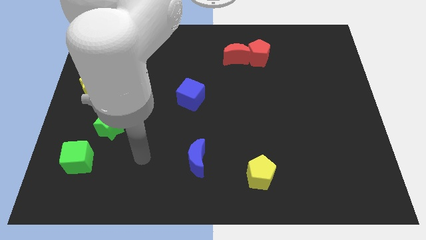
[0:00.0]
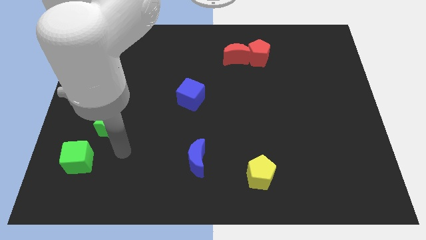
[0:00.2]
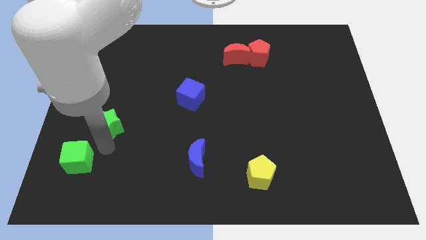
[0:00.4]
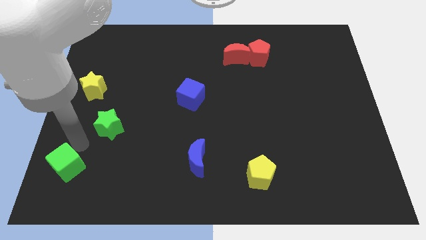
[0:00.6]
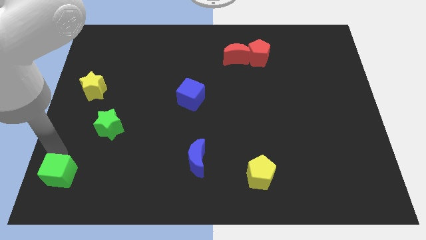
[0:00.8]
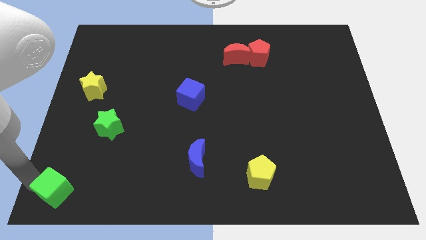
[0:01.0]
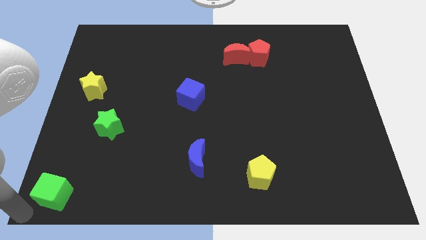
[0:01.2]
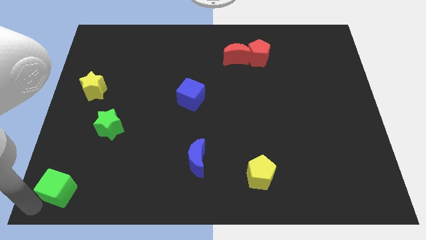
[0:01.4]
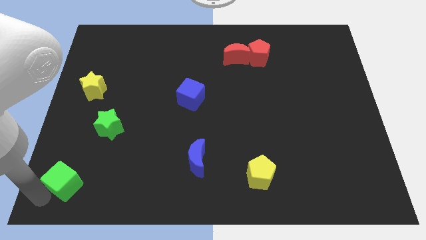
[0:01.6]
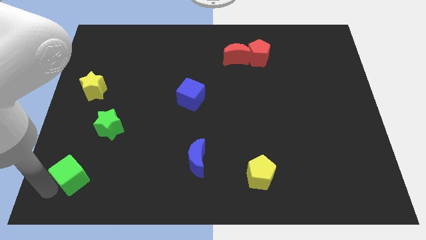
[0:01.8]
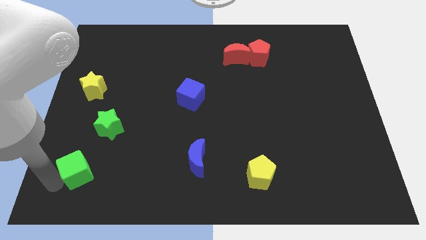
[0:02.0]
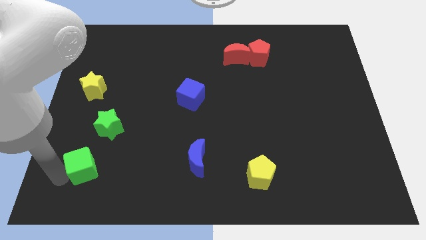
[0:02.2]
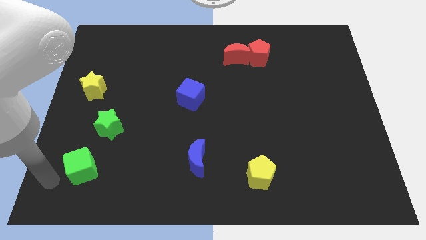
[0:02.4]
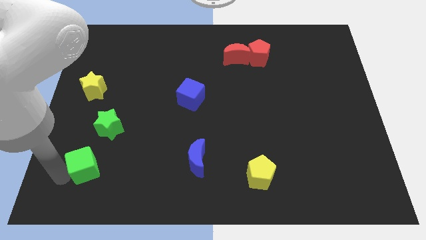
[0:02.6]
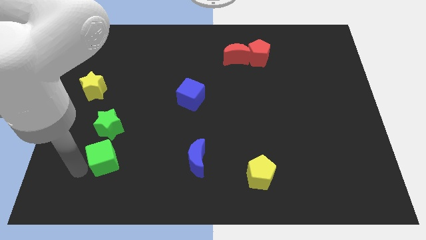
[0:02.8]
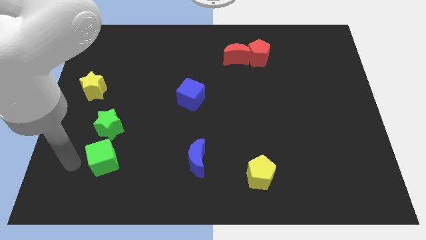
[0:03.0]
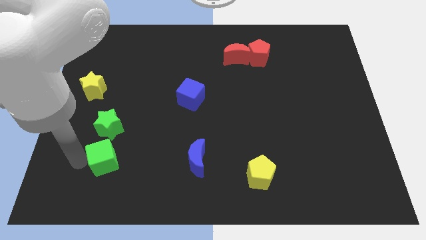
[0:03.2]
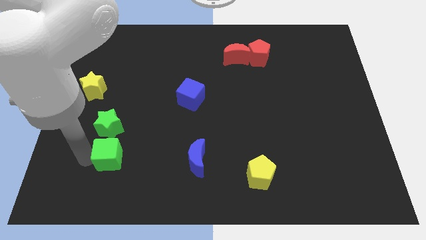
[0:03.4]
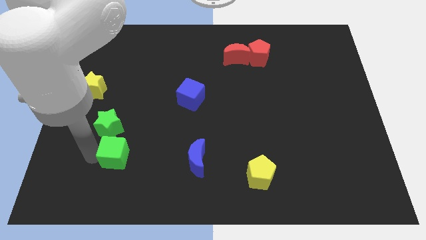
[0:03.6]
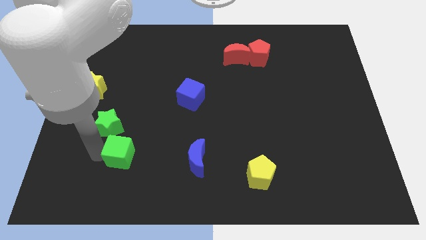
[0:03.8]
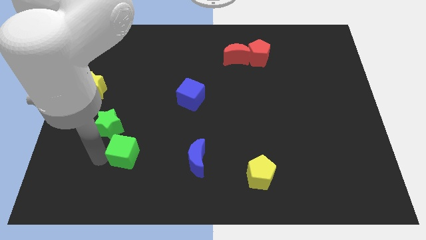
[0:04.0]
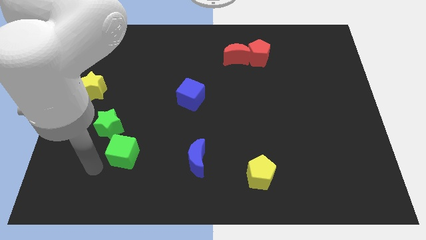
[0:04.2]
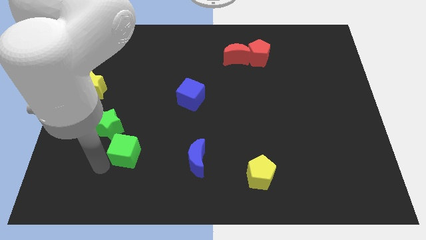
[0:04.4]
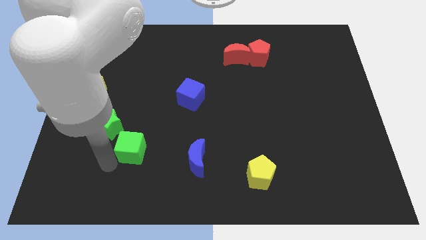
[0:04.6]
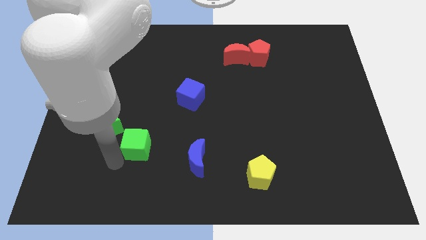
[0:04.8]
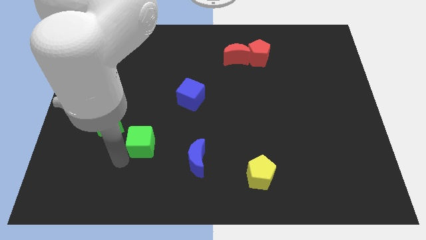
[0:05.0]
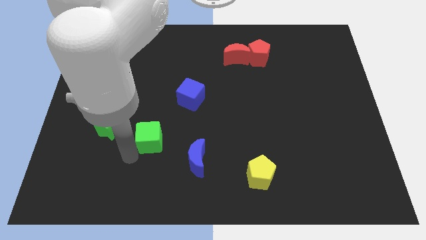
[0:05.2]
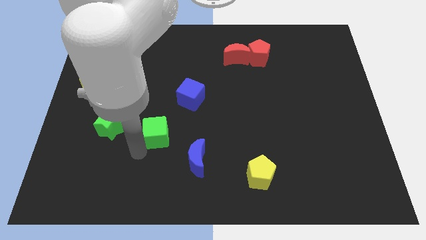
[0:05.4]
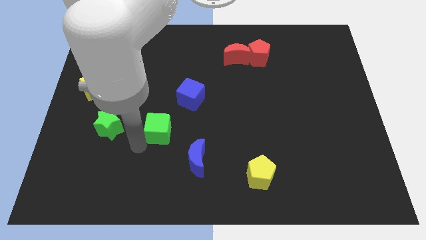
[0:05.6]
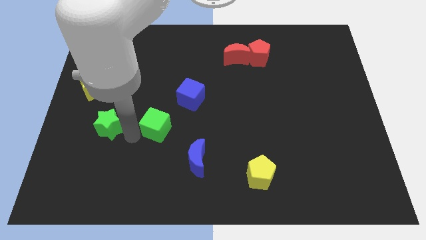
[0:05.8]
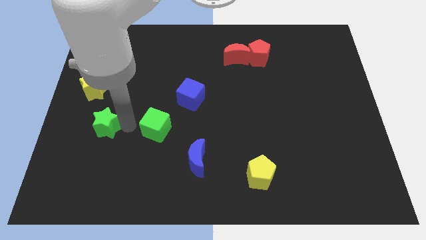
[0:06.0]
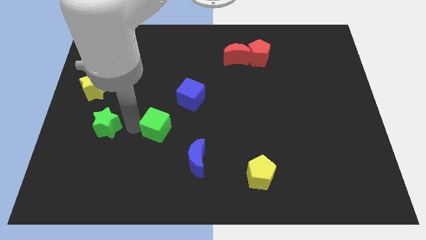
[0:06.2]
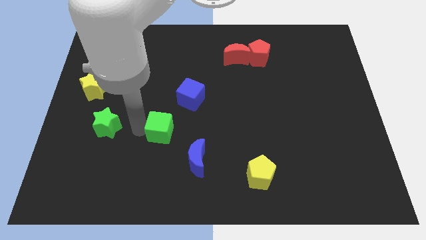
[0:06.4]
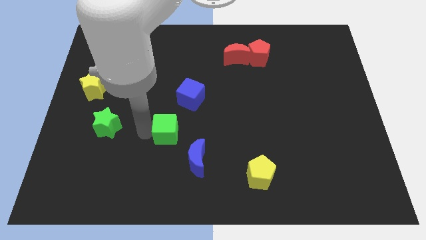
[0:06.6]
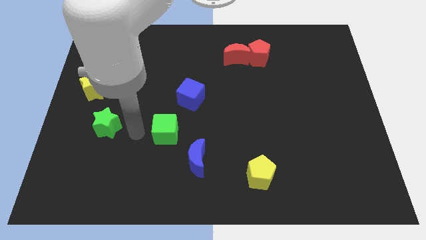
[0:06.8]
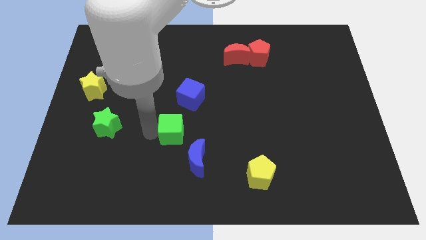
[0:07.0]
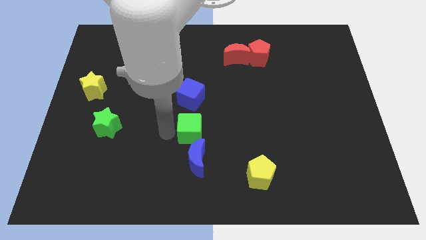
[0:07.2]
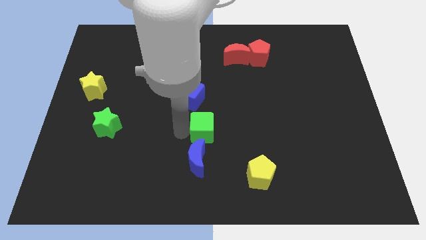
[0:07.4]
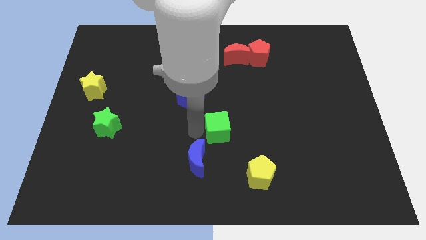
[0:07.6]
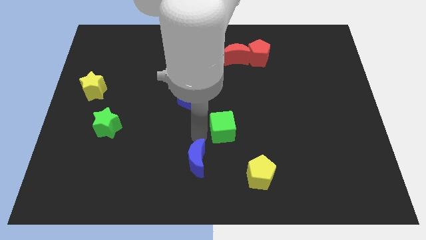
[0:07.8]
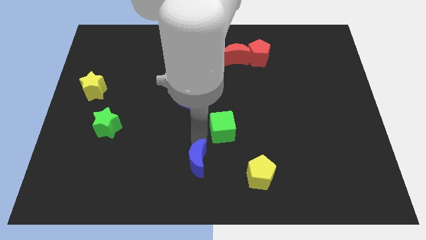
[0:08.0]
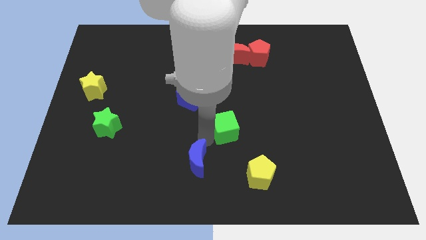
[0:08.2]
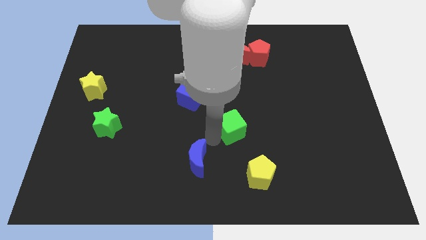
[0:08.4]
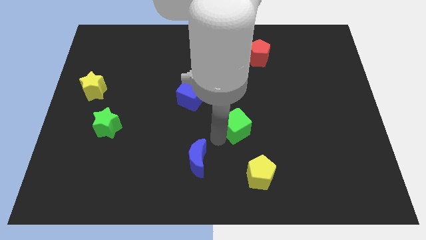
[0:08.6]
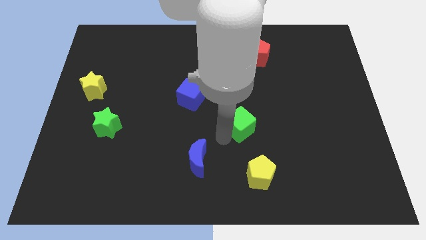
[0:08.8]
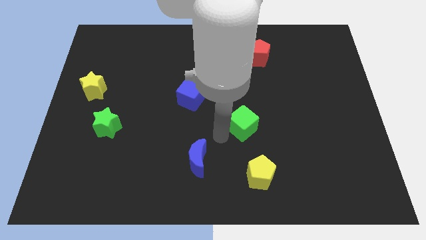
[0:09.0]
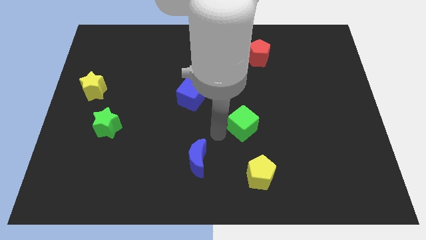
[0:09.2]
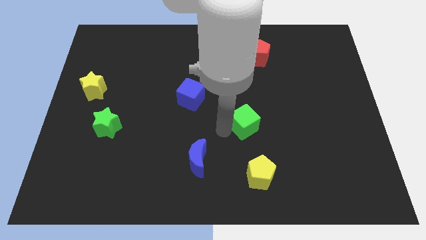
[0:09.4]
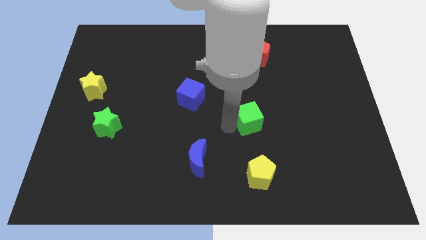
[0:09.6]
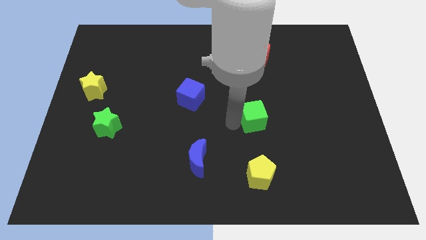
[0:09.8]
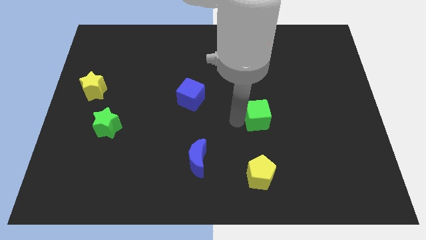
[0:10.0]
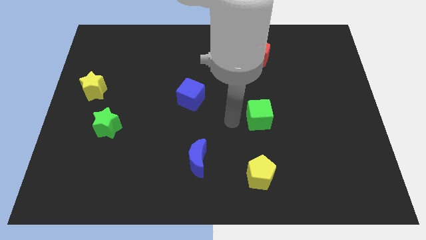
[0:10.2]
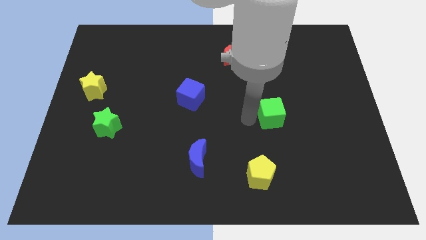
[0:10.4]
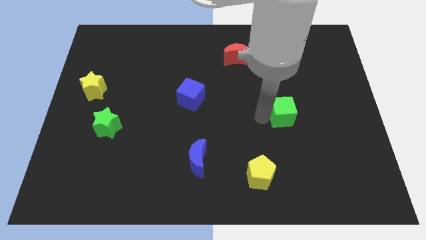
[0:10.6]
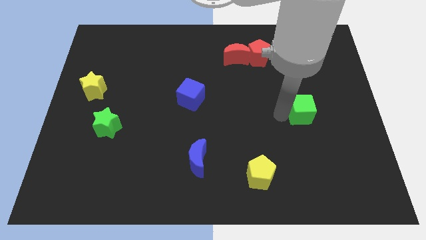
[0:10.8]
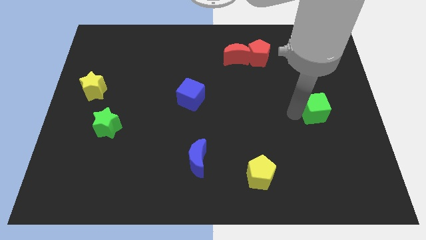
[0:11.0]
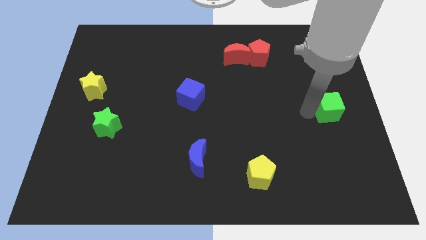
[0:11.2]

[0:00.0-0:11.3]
slide the green cube to the center right
